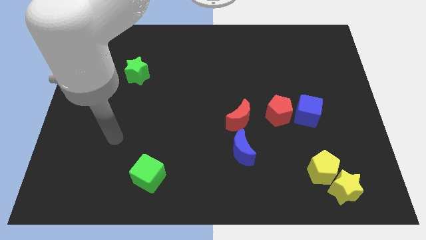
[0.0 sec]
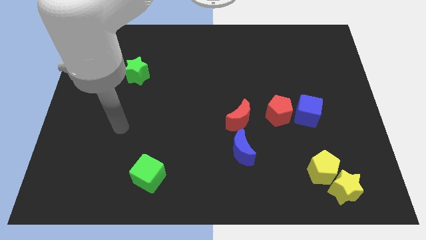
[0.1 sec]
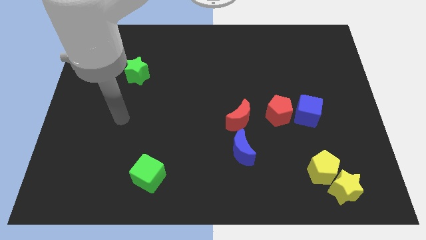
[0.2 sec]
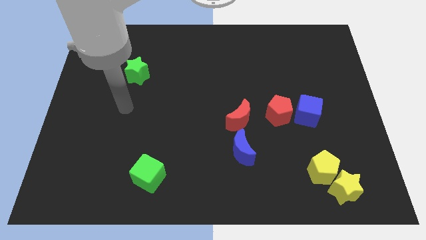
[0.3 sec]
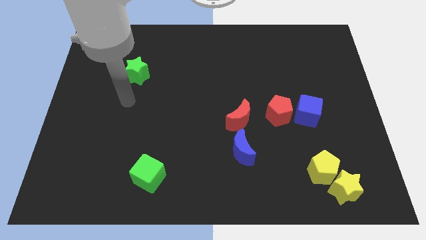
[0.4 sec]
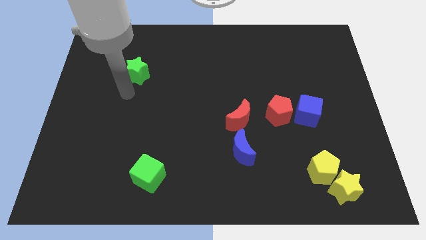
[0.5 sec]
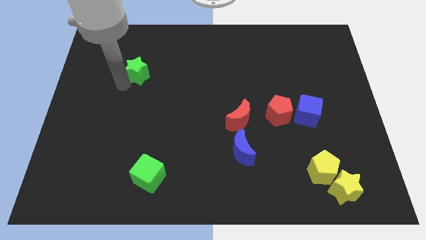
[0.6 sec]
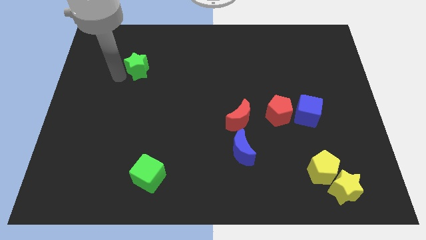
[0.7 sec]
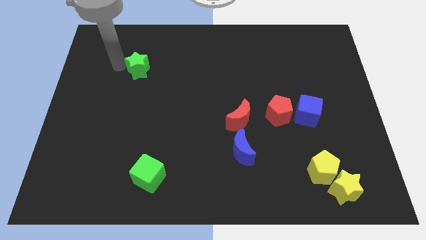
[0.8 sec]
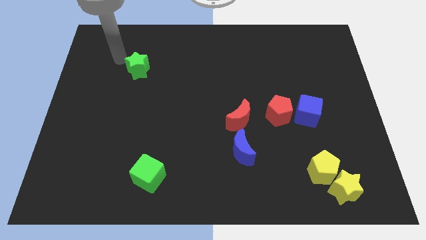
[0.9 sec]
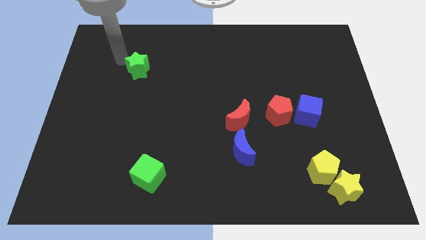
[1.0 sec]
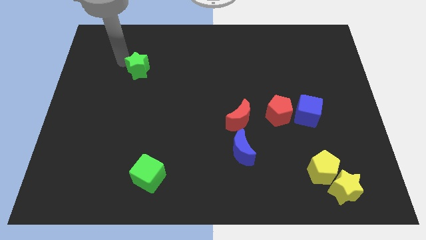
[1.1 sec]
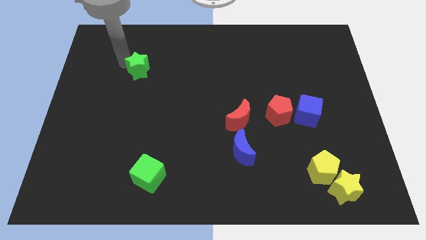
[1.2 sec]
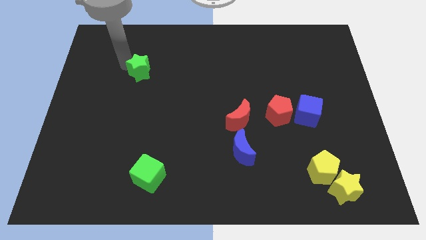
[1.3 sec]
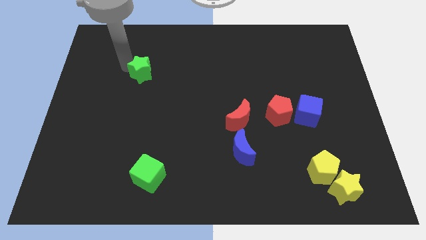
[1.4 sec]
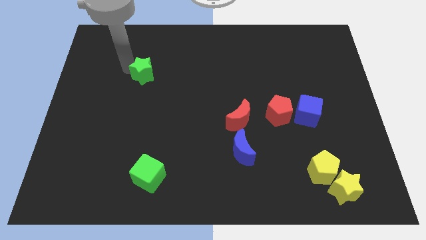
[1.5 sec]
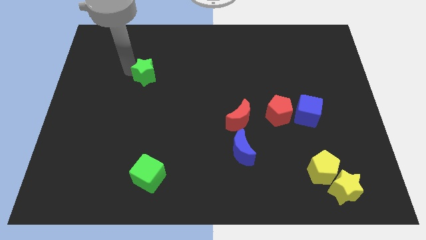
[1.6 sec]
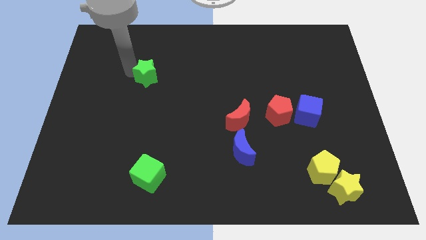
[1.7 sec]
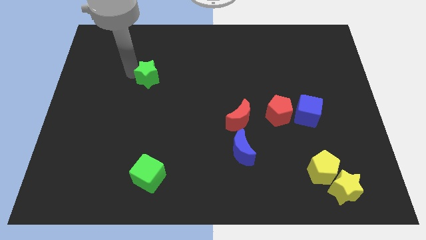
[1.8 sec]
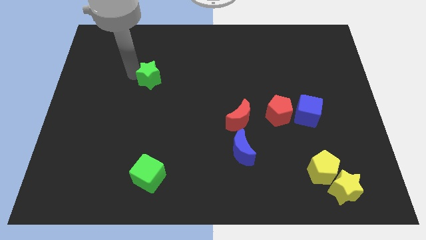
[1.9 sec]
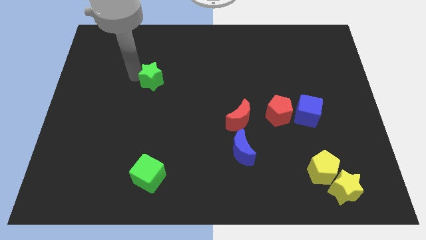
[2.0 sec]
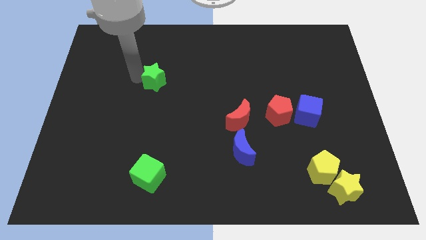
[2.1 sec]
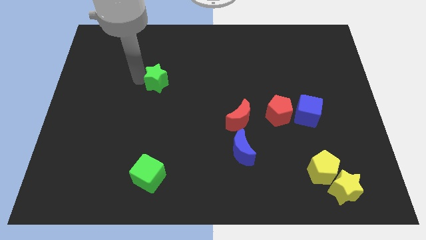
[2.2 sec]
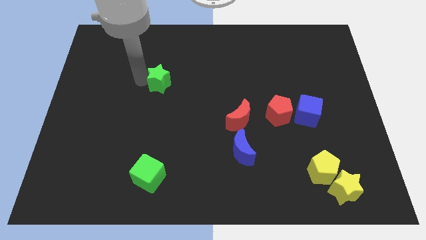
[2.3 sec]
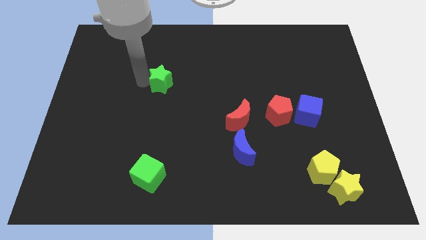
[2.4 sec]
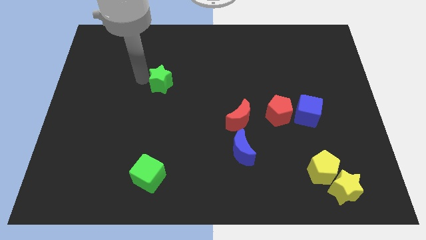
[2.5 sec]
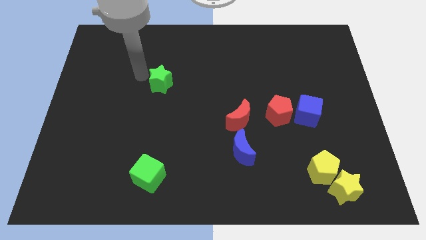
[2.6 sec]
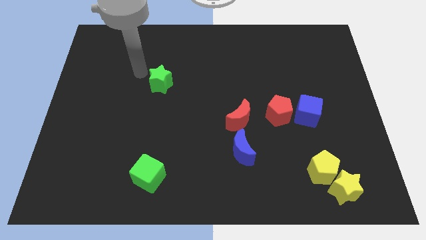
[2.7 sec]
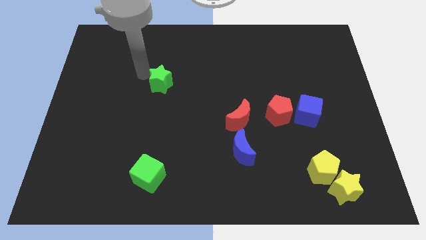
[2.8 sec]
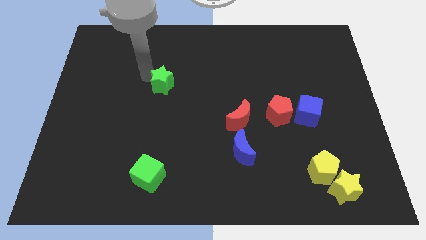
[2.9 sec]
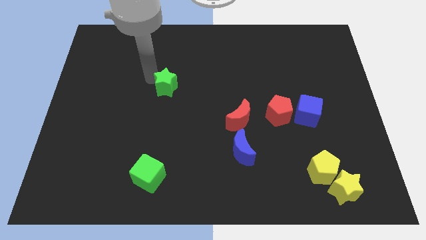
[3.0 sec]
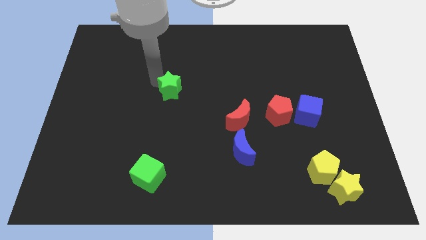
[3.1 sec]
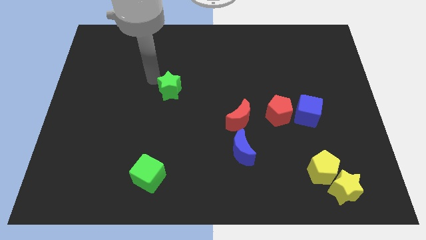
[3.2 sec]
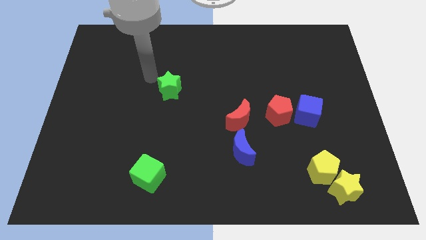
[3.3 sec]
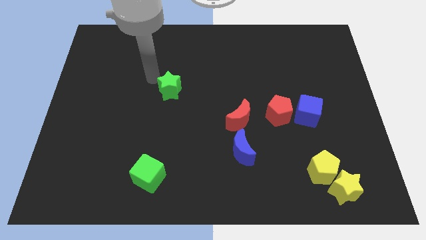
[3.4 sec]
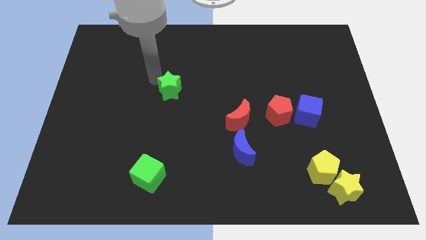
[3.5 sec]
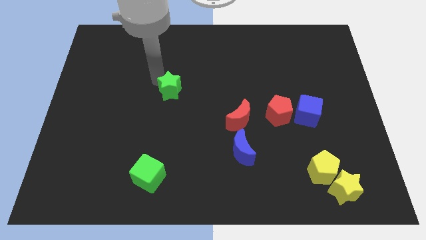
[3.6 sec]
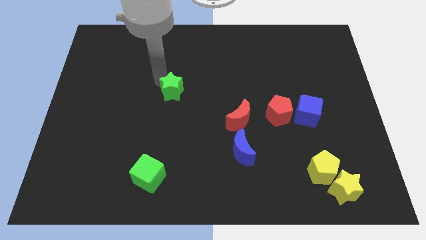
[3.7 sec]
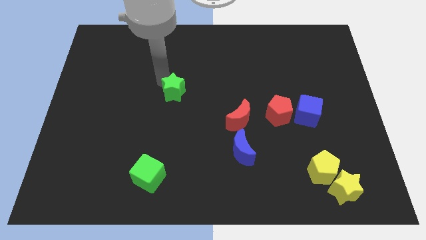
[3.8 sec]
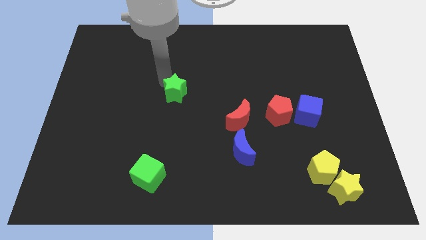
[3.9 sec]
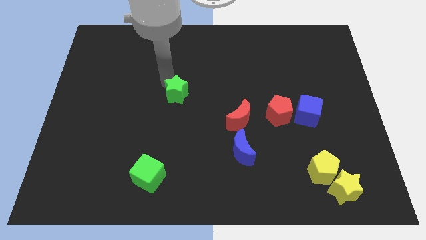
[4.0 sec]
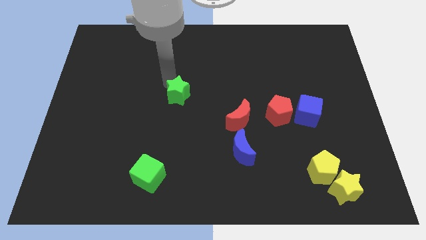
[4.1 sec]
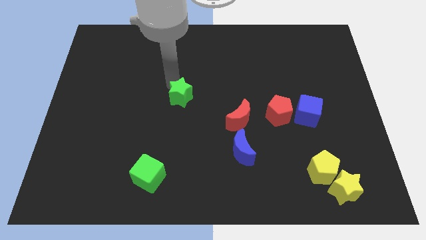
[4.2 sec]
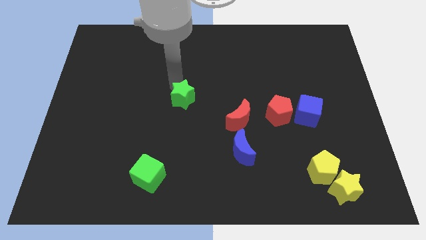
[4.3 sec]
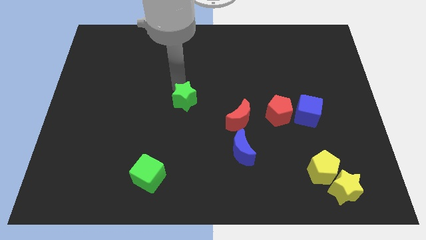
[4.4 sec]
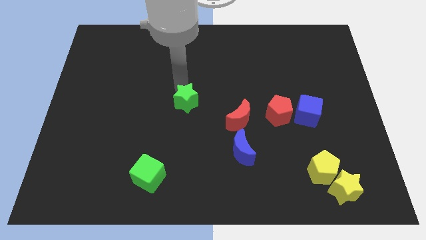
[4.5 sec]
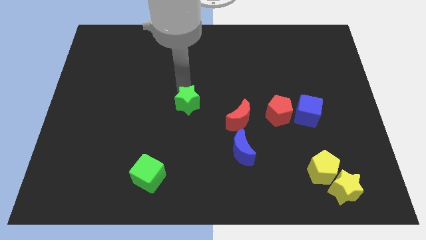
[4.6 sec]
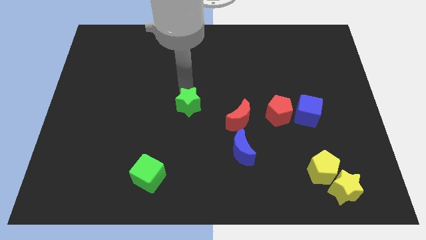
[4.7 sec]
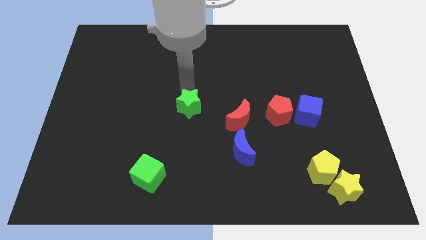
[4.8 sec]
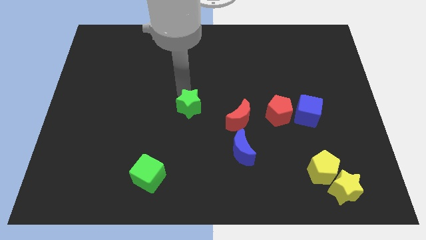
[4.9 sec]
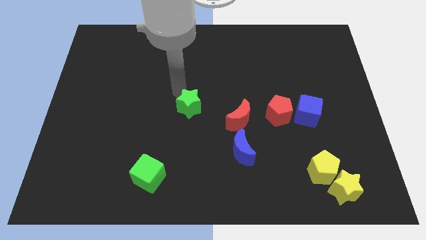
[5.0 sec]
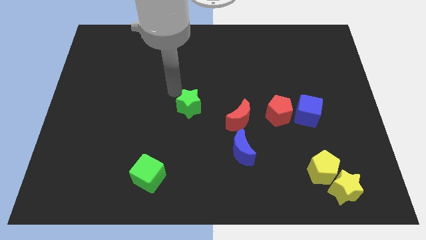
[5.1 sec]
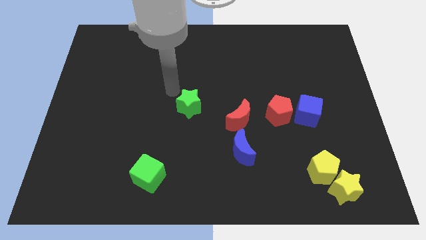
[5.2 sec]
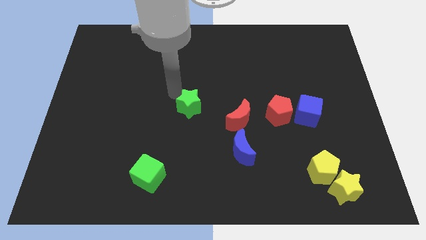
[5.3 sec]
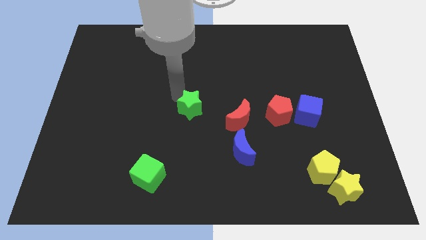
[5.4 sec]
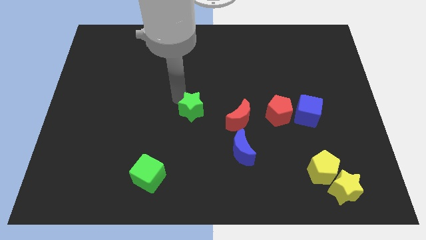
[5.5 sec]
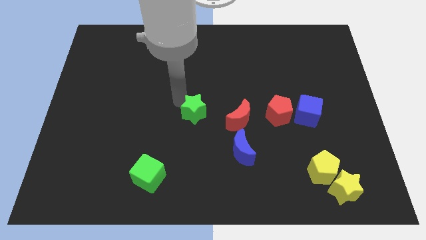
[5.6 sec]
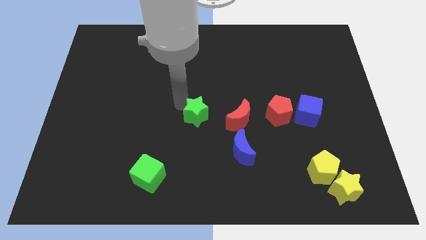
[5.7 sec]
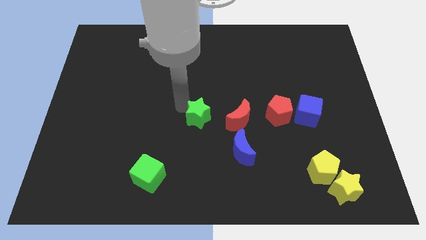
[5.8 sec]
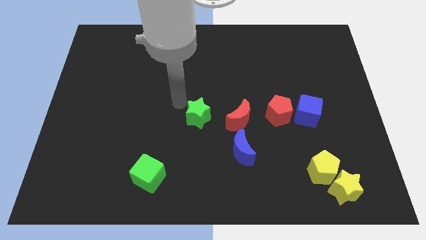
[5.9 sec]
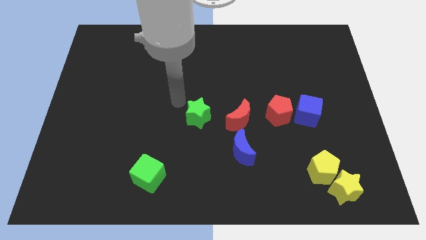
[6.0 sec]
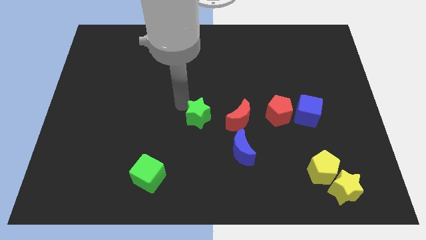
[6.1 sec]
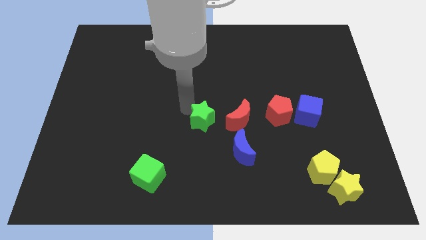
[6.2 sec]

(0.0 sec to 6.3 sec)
put the green star to the top left side of the blue moon

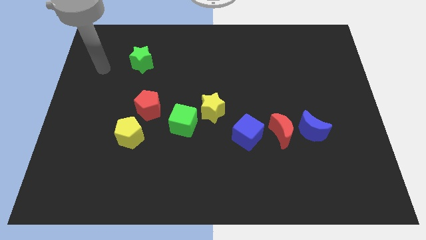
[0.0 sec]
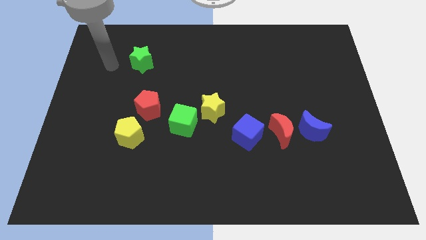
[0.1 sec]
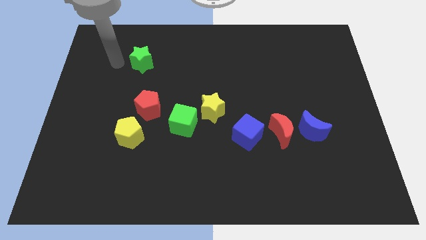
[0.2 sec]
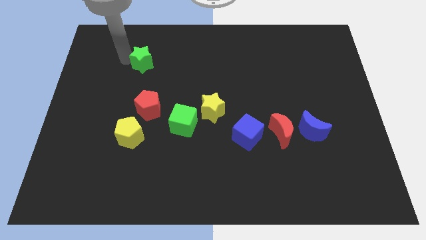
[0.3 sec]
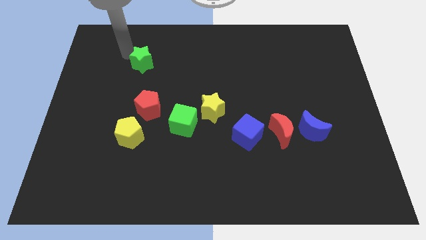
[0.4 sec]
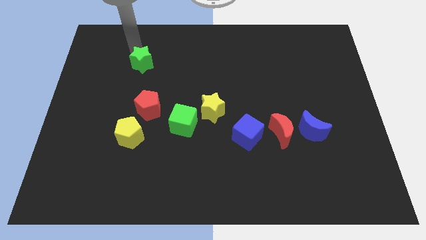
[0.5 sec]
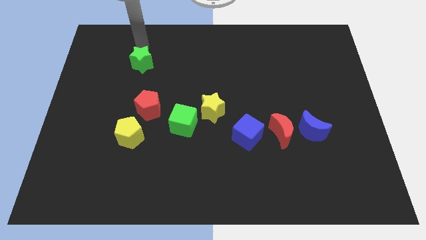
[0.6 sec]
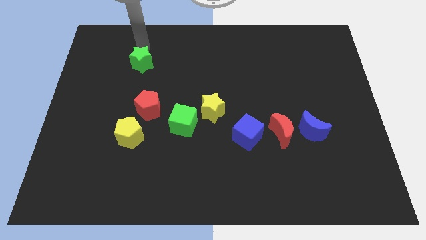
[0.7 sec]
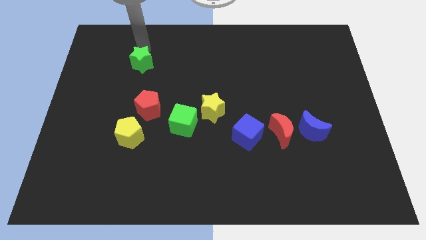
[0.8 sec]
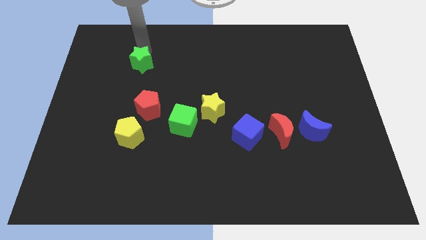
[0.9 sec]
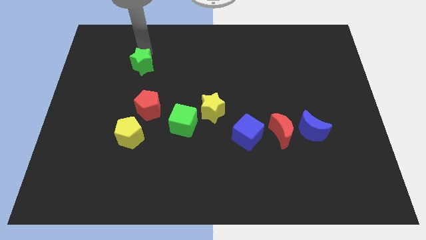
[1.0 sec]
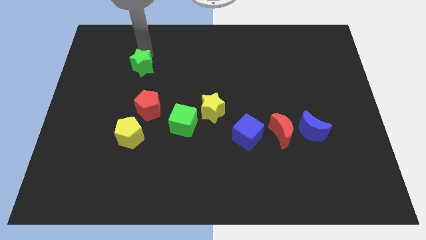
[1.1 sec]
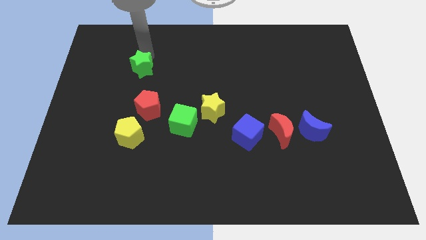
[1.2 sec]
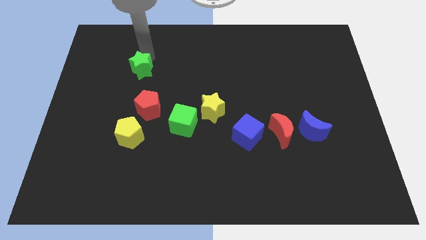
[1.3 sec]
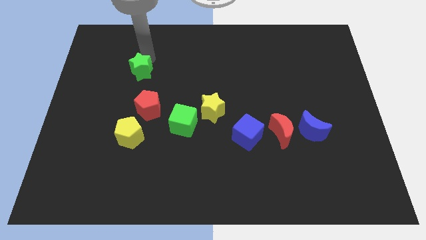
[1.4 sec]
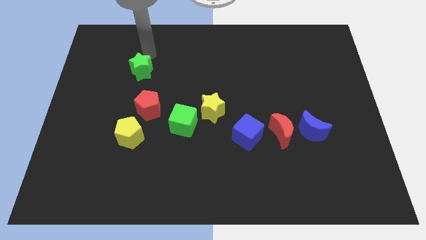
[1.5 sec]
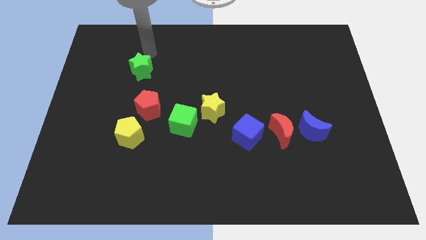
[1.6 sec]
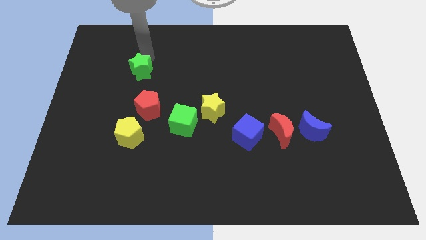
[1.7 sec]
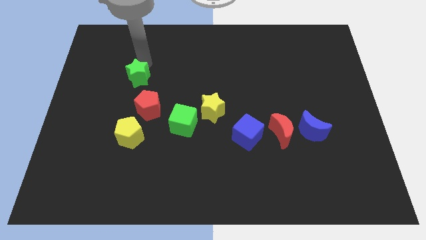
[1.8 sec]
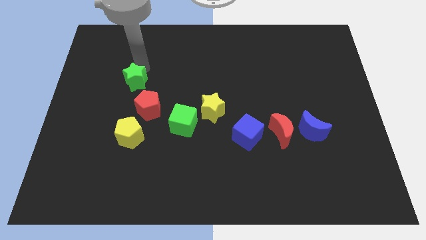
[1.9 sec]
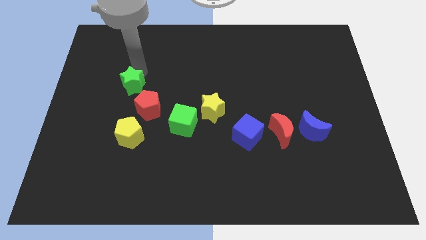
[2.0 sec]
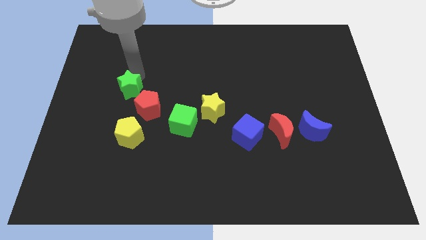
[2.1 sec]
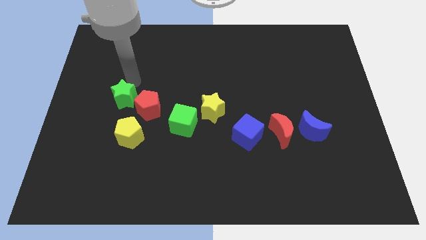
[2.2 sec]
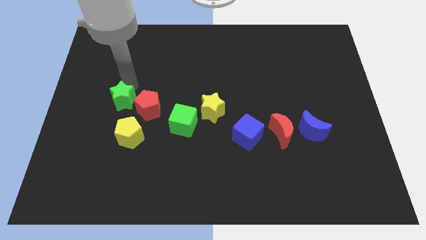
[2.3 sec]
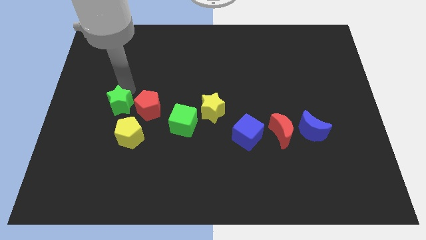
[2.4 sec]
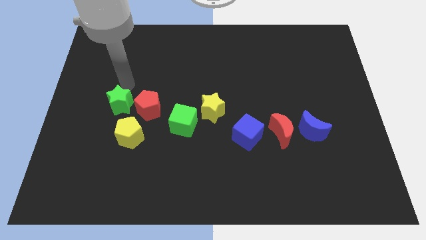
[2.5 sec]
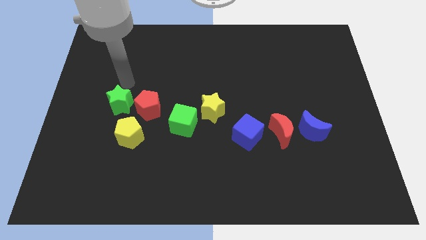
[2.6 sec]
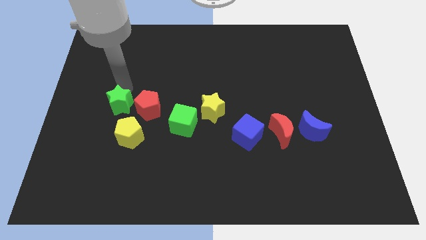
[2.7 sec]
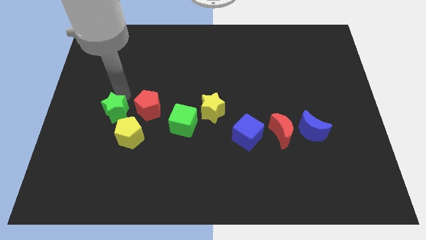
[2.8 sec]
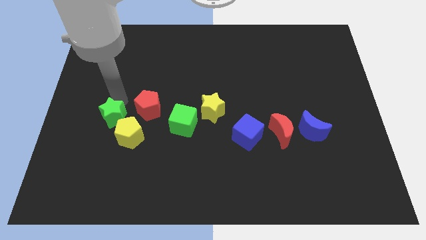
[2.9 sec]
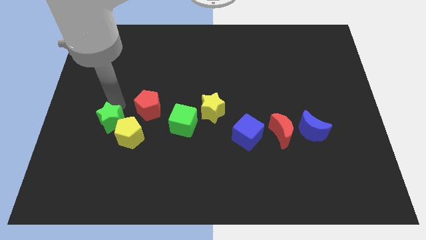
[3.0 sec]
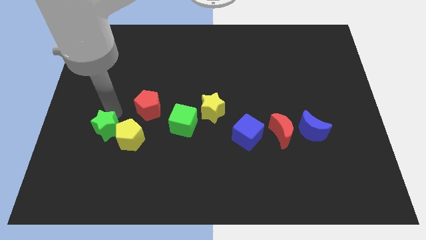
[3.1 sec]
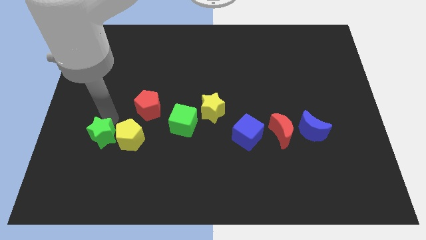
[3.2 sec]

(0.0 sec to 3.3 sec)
slide the green star to the bottom left of the yellow pentagon
